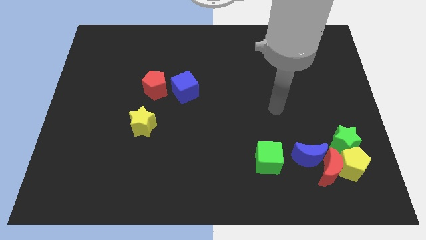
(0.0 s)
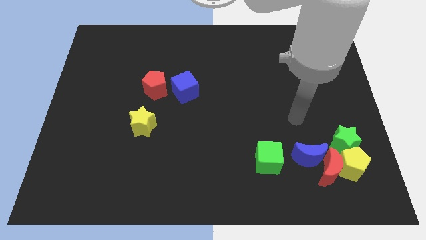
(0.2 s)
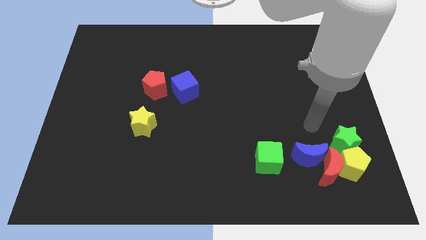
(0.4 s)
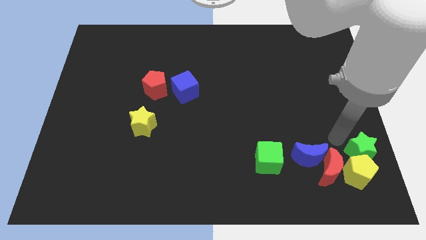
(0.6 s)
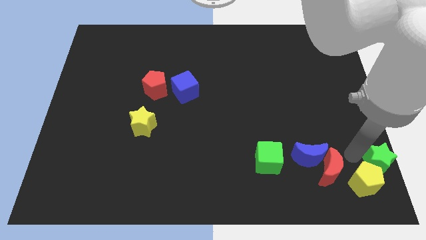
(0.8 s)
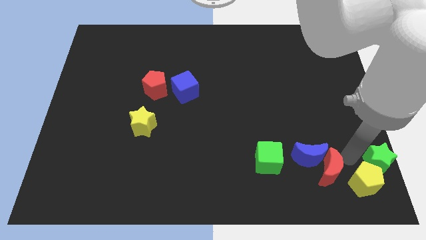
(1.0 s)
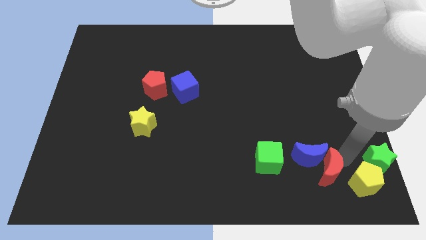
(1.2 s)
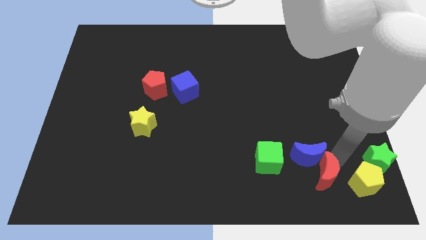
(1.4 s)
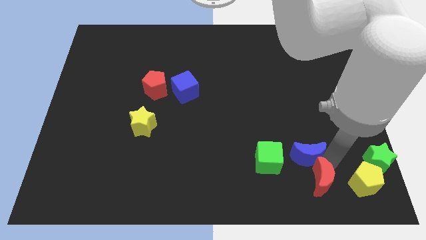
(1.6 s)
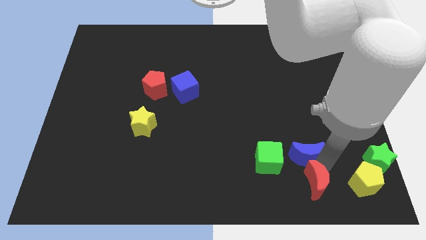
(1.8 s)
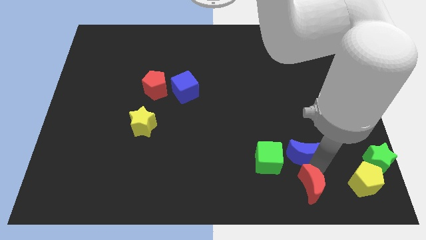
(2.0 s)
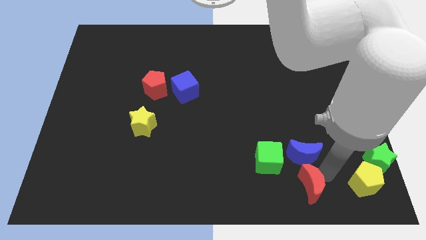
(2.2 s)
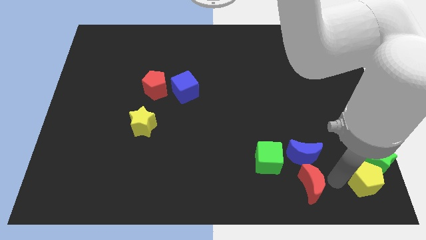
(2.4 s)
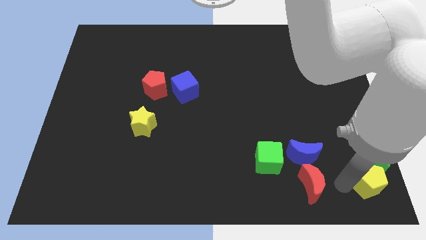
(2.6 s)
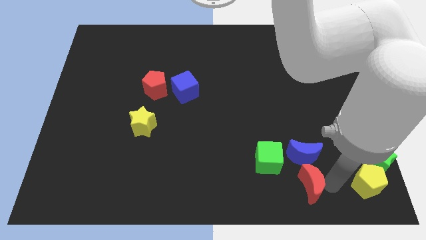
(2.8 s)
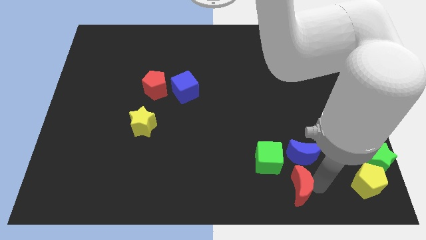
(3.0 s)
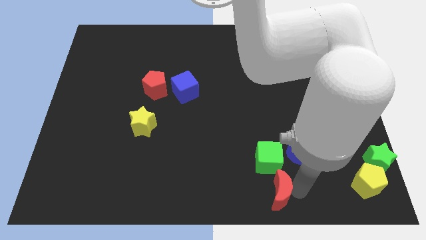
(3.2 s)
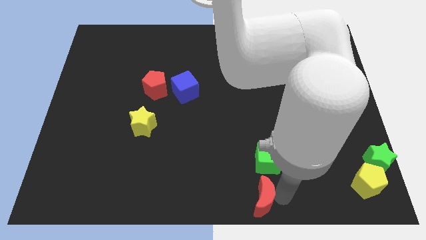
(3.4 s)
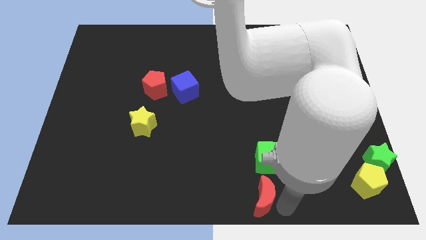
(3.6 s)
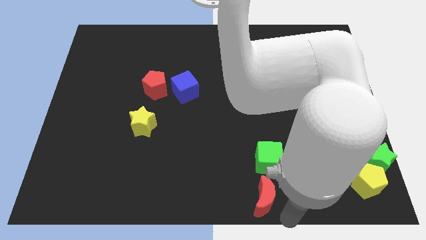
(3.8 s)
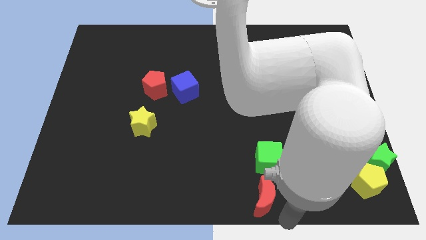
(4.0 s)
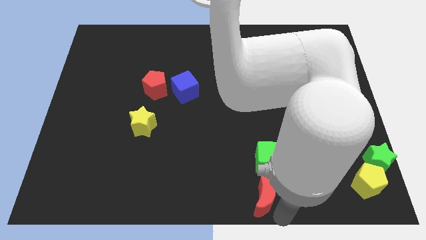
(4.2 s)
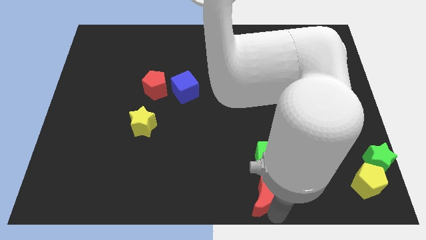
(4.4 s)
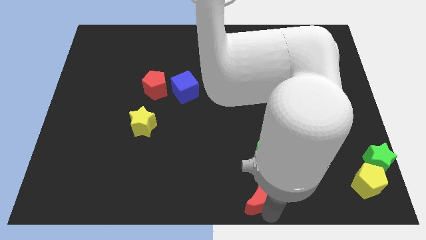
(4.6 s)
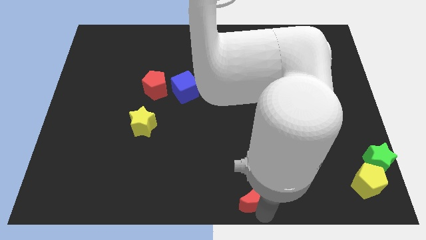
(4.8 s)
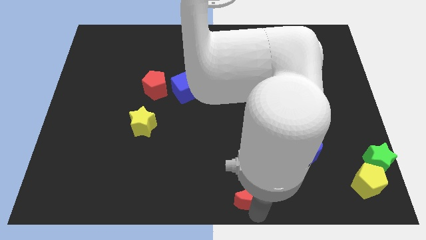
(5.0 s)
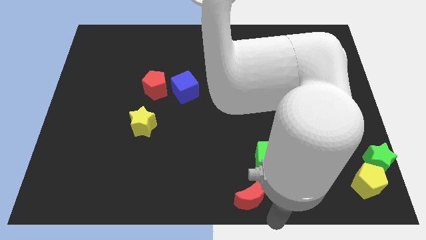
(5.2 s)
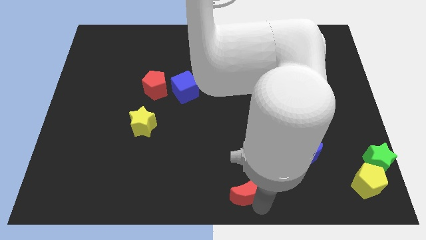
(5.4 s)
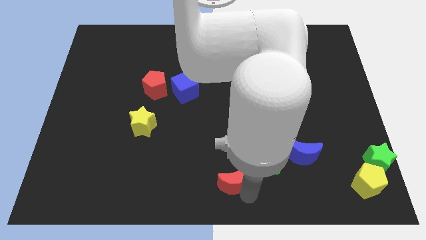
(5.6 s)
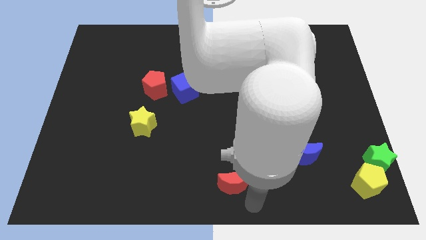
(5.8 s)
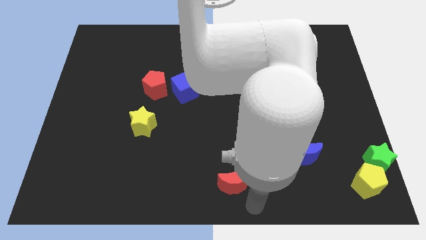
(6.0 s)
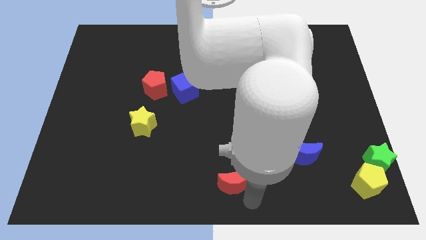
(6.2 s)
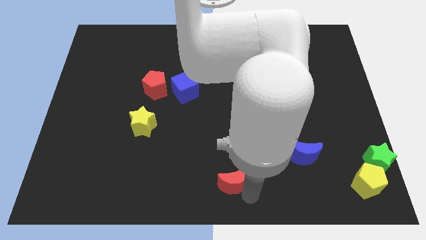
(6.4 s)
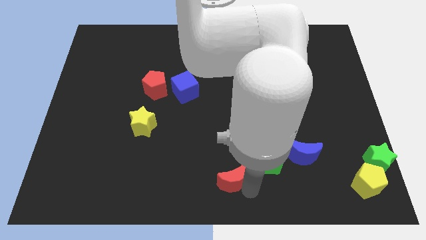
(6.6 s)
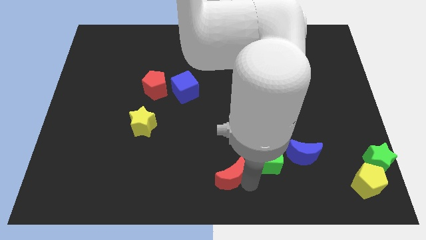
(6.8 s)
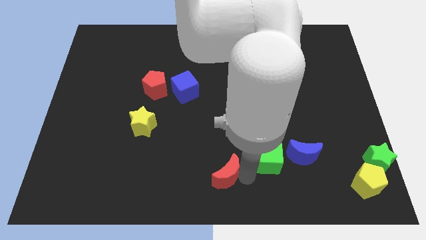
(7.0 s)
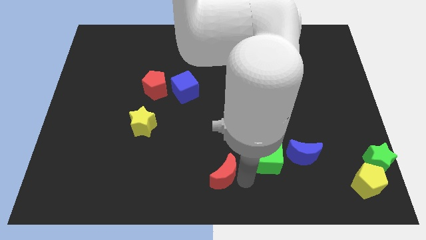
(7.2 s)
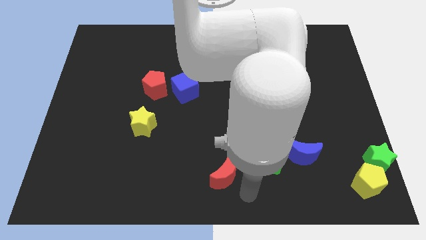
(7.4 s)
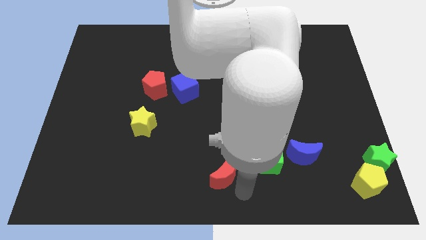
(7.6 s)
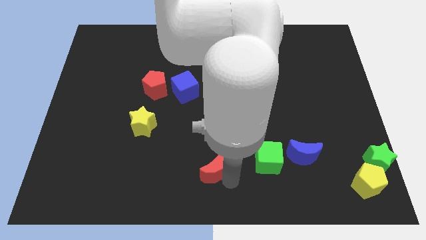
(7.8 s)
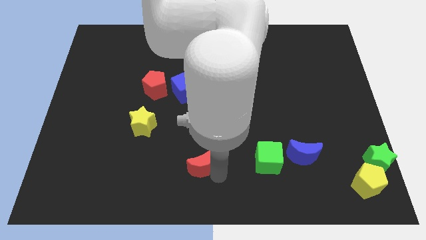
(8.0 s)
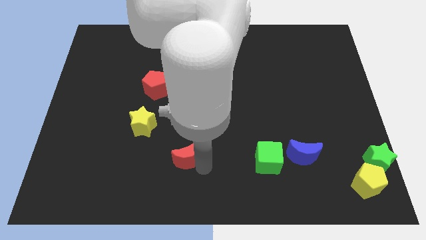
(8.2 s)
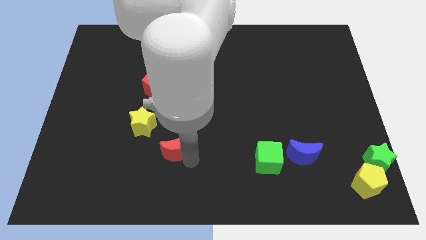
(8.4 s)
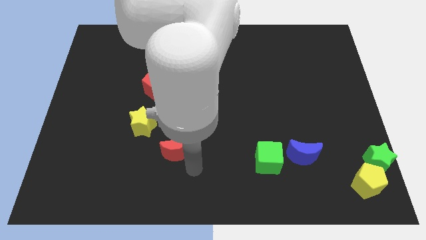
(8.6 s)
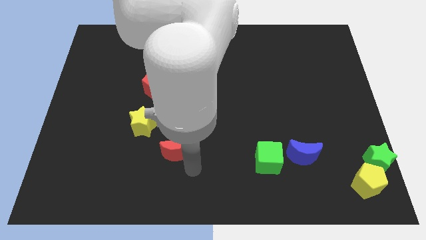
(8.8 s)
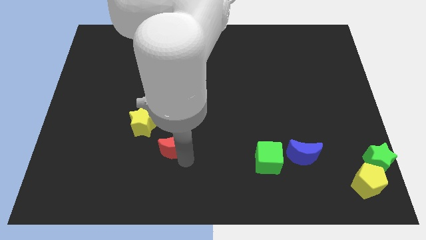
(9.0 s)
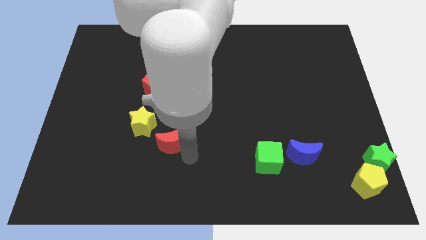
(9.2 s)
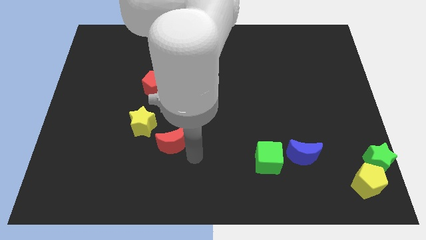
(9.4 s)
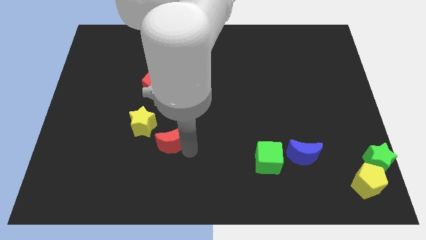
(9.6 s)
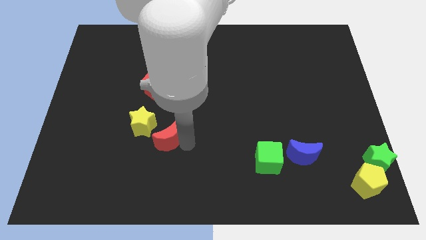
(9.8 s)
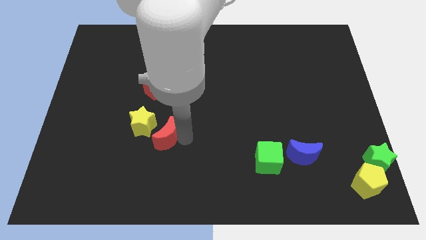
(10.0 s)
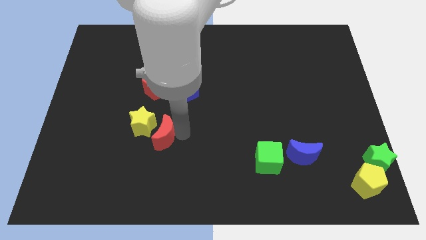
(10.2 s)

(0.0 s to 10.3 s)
slide the red moon close to the yellow star

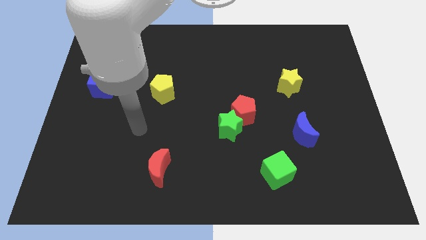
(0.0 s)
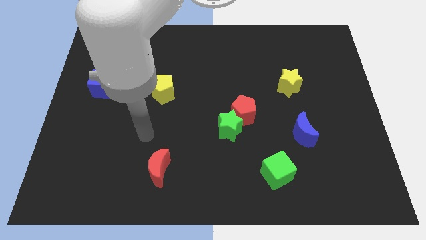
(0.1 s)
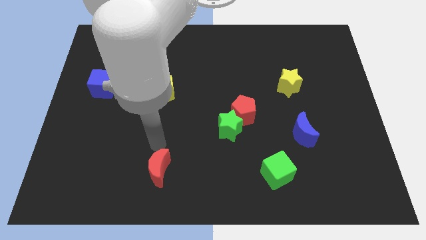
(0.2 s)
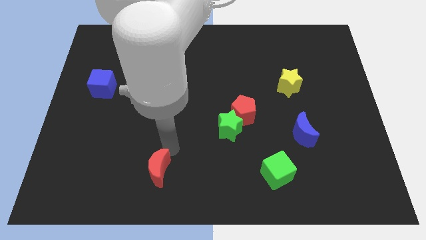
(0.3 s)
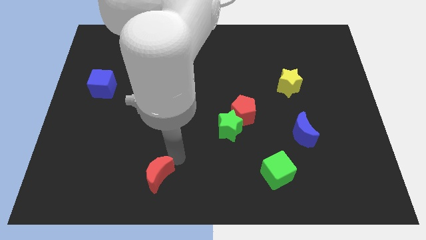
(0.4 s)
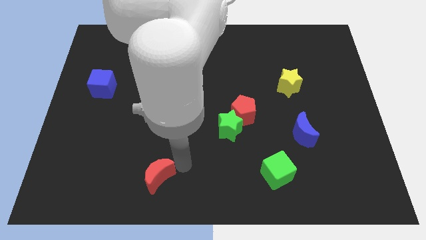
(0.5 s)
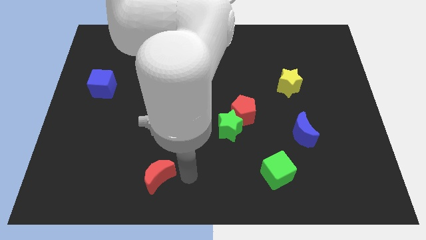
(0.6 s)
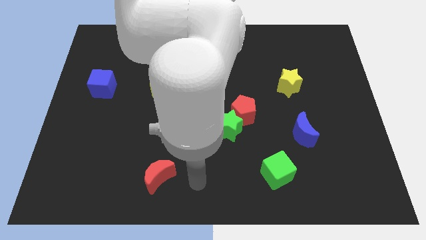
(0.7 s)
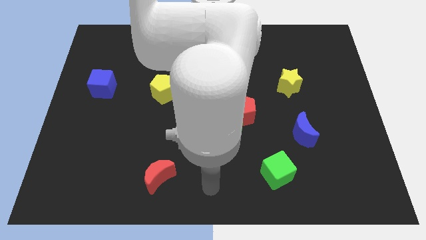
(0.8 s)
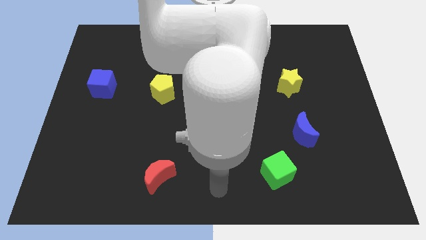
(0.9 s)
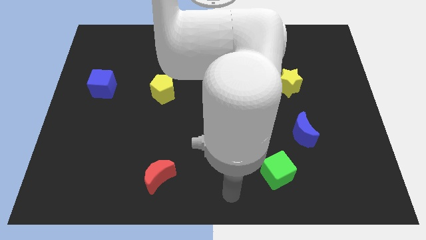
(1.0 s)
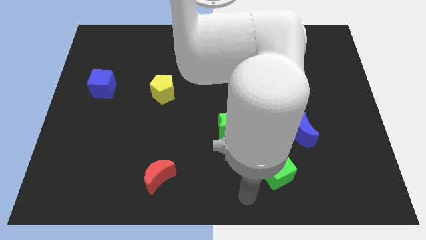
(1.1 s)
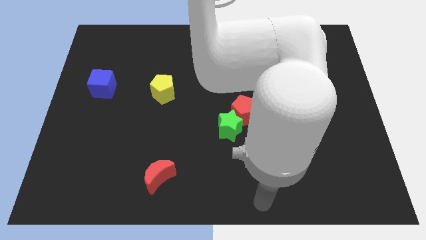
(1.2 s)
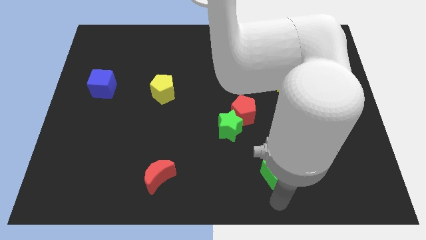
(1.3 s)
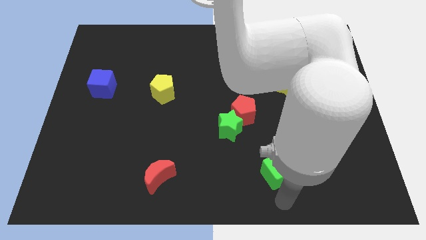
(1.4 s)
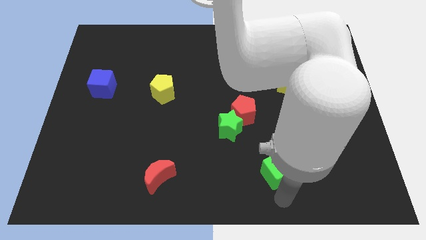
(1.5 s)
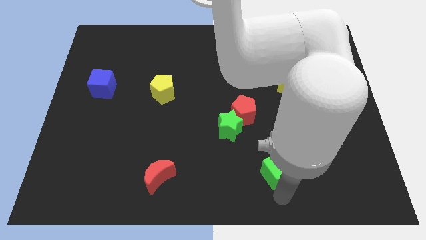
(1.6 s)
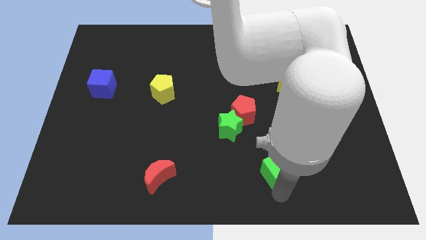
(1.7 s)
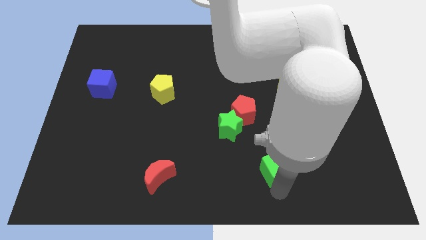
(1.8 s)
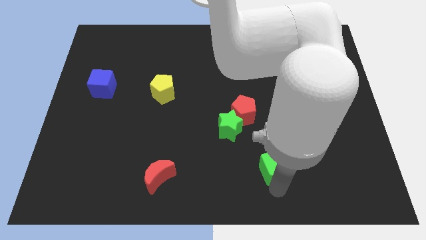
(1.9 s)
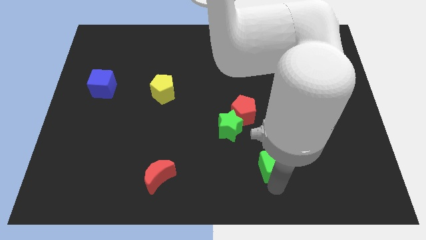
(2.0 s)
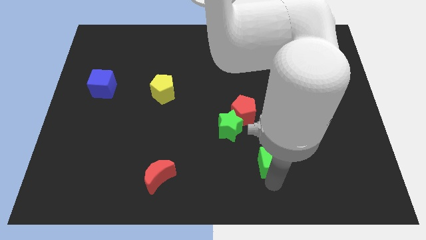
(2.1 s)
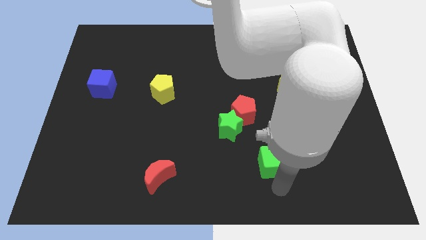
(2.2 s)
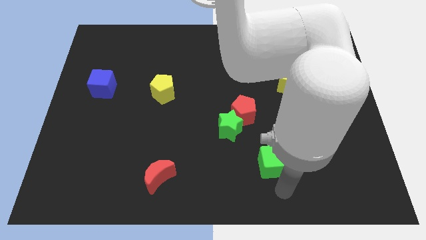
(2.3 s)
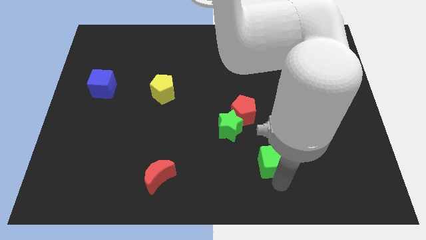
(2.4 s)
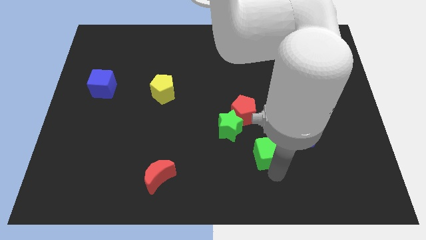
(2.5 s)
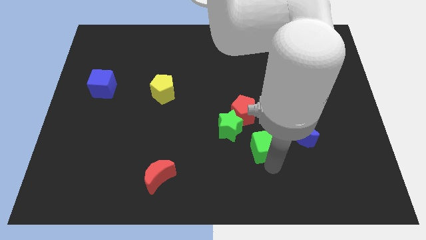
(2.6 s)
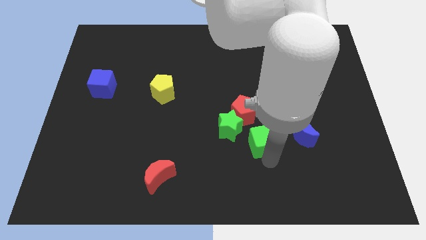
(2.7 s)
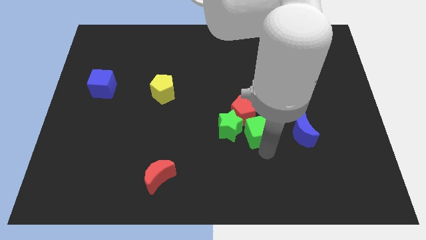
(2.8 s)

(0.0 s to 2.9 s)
put the green cube to the red pentagon
